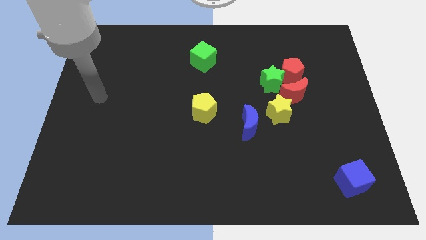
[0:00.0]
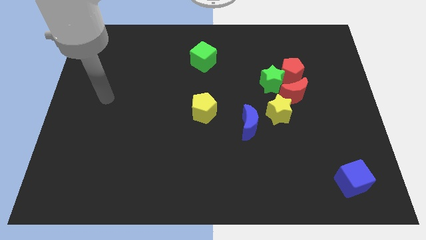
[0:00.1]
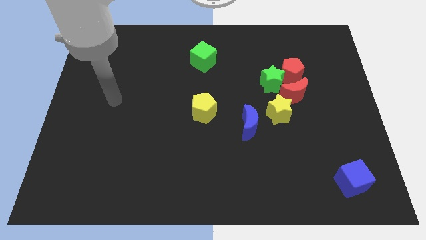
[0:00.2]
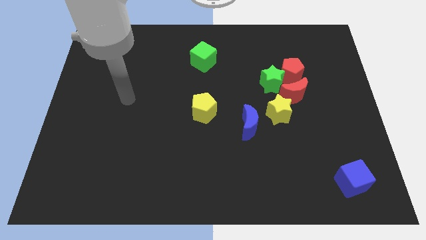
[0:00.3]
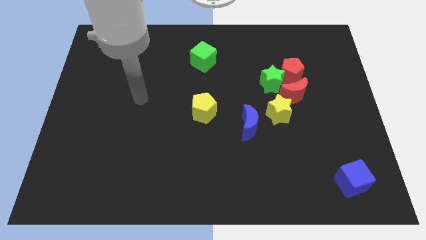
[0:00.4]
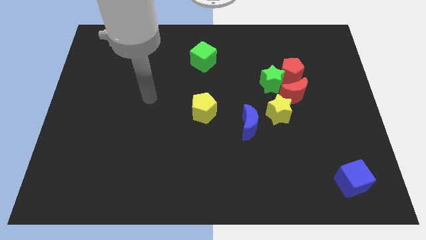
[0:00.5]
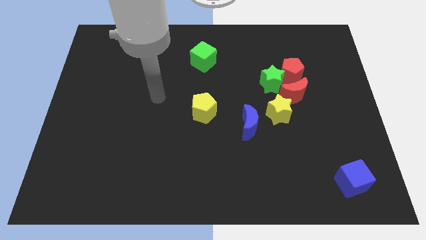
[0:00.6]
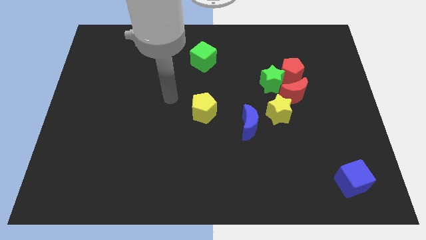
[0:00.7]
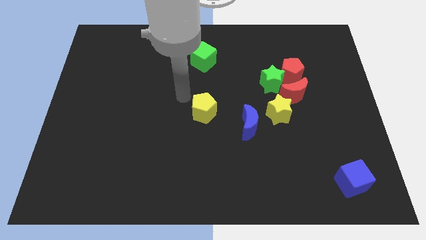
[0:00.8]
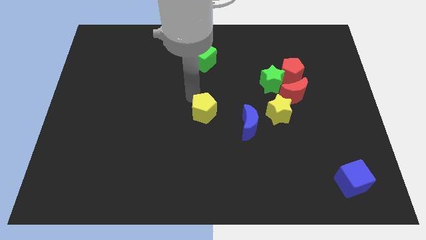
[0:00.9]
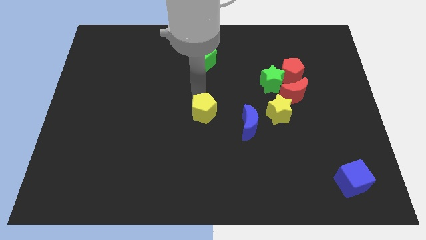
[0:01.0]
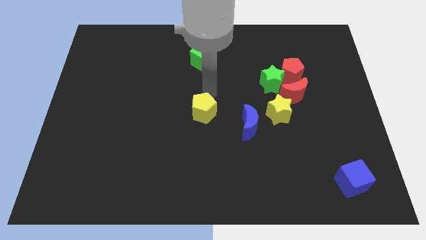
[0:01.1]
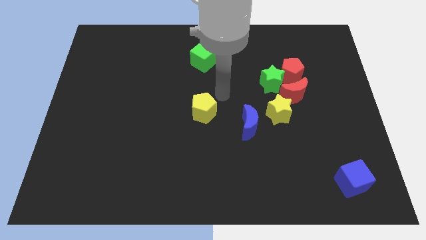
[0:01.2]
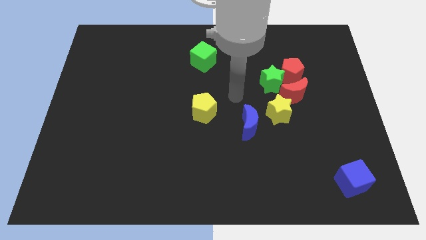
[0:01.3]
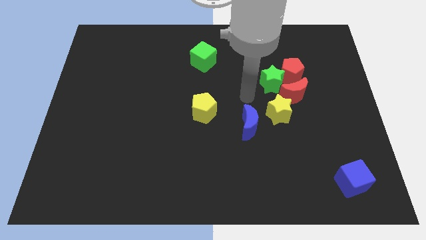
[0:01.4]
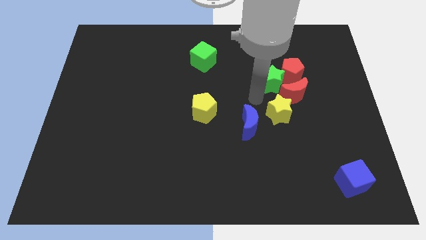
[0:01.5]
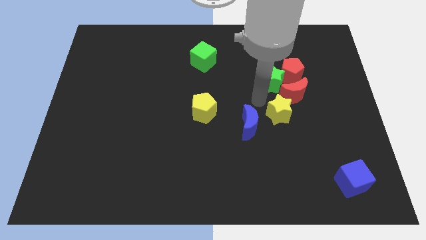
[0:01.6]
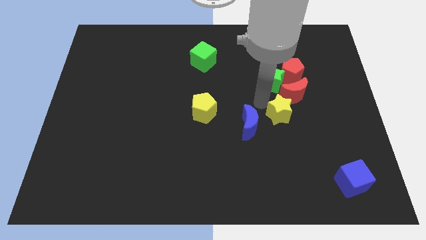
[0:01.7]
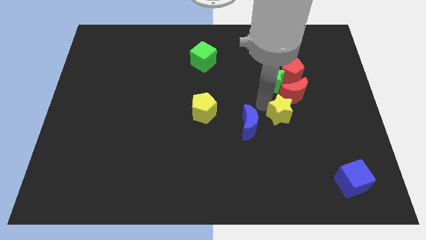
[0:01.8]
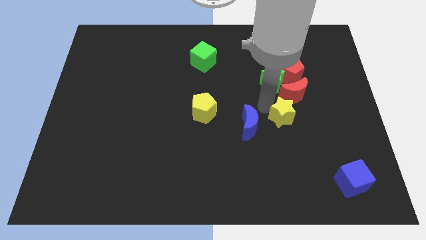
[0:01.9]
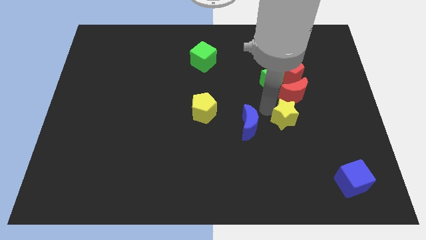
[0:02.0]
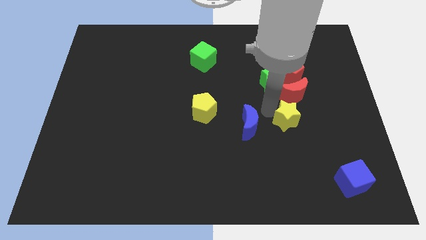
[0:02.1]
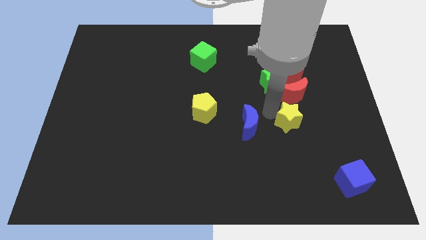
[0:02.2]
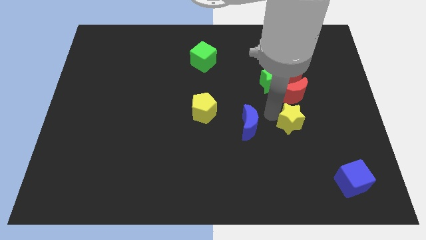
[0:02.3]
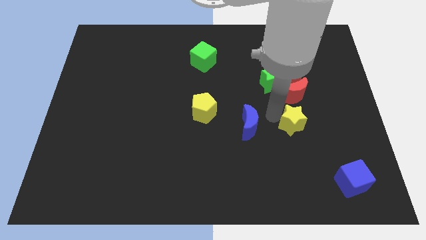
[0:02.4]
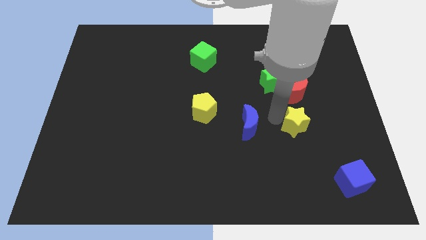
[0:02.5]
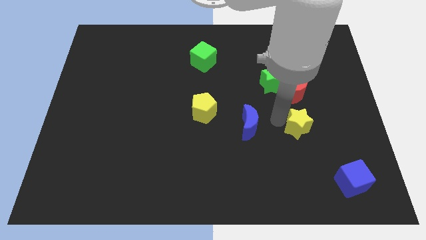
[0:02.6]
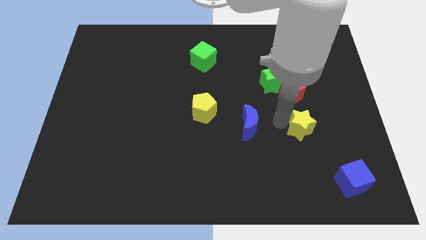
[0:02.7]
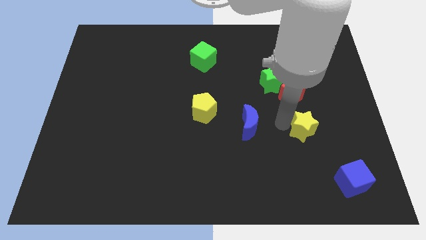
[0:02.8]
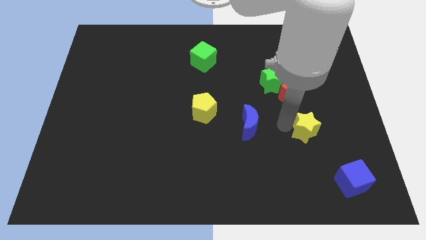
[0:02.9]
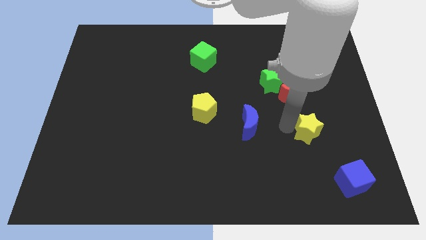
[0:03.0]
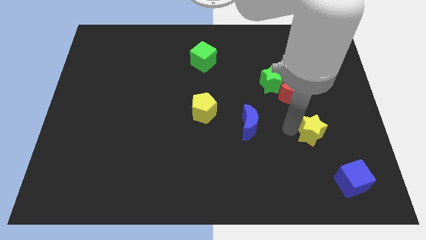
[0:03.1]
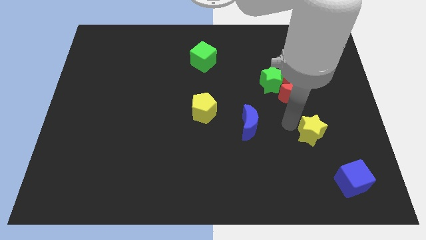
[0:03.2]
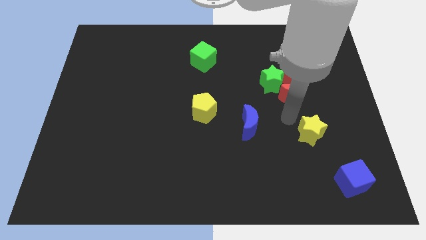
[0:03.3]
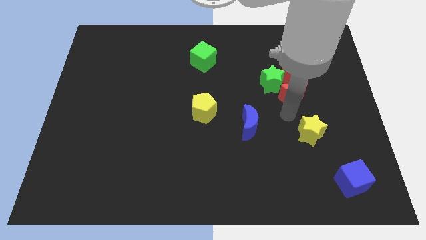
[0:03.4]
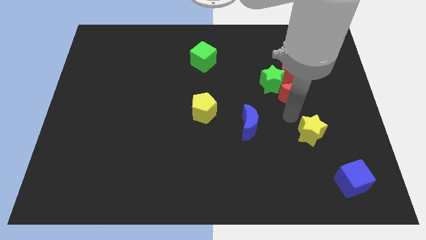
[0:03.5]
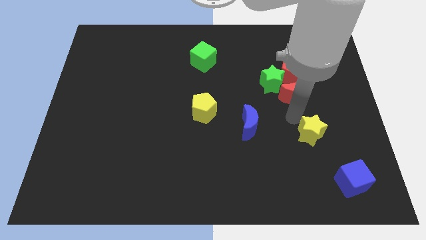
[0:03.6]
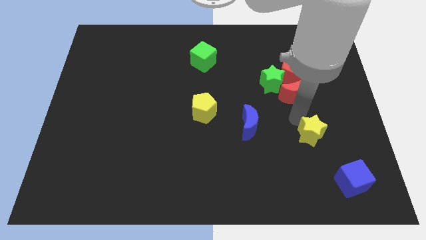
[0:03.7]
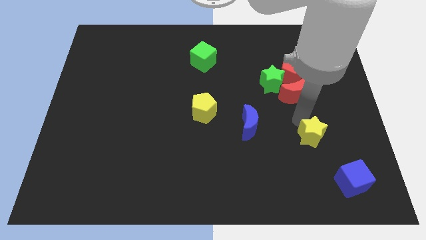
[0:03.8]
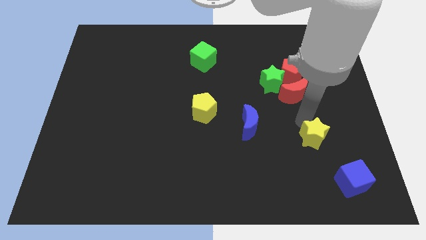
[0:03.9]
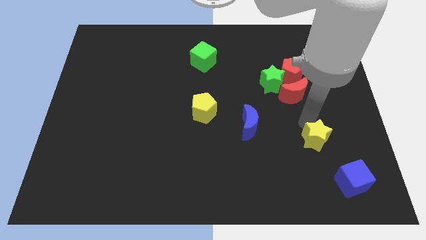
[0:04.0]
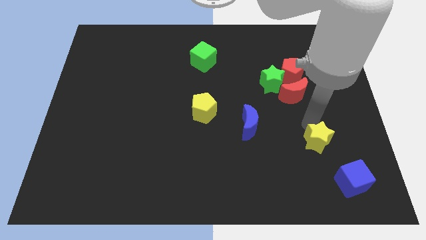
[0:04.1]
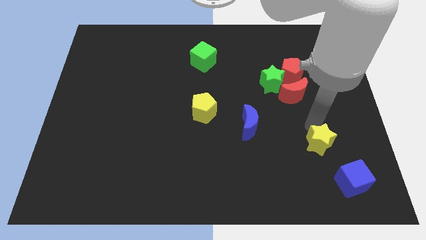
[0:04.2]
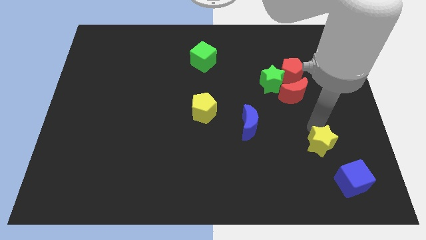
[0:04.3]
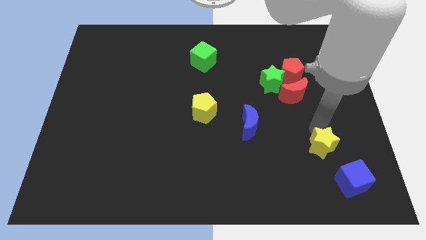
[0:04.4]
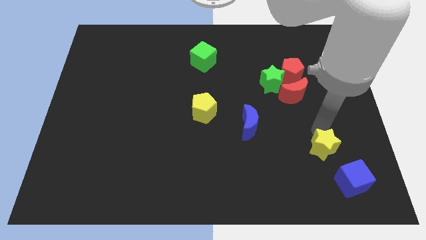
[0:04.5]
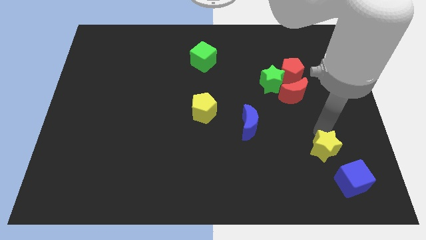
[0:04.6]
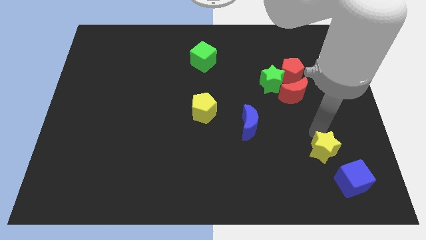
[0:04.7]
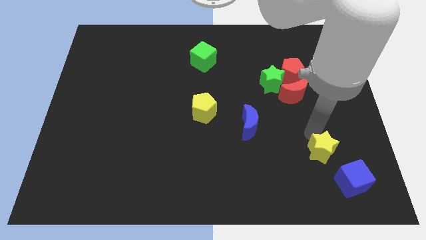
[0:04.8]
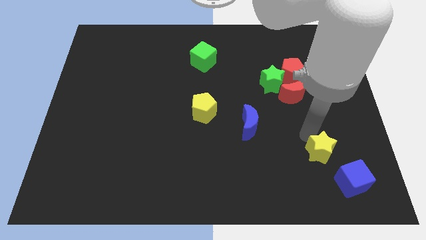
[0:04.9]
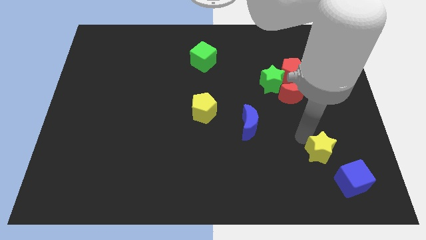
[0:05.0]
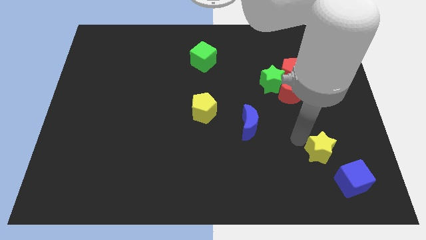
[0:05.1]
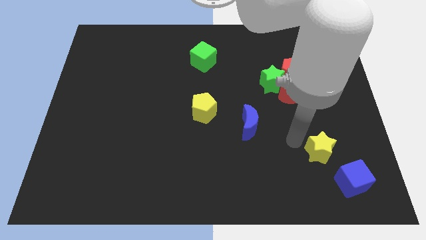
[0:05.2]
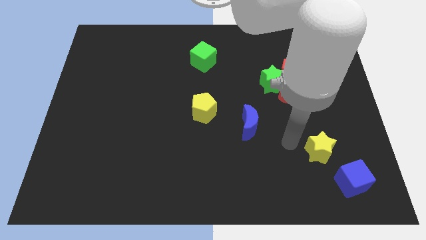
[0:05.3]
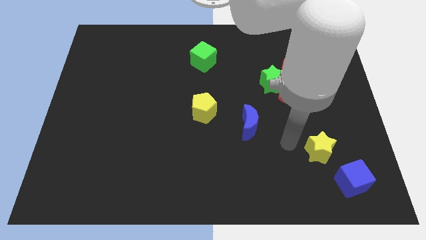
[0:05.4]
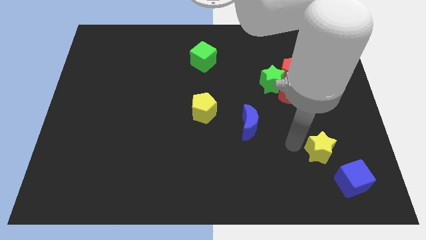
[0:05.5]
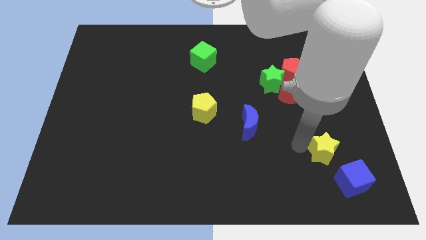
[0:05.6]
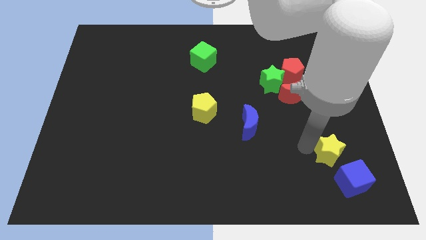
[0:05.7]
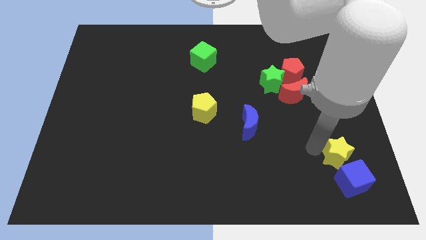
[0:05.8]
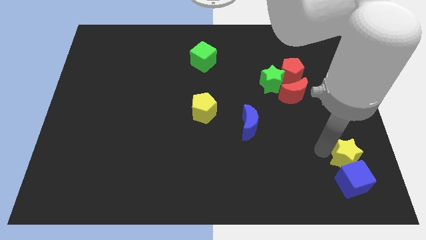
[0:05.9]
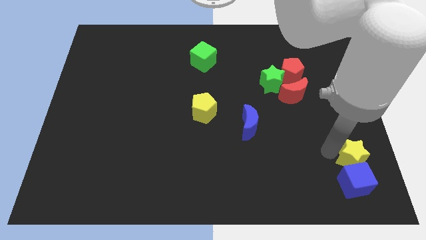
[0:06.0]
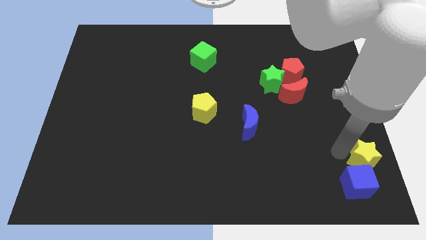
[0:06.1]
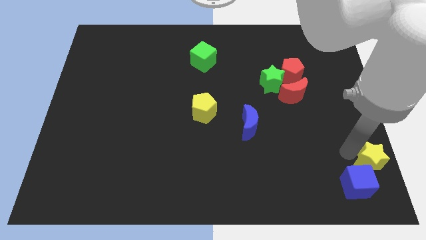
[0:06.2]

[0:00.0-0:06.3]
slide the yellow star to the bottom right of the board

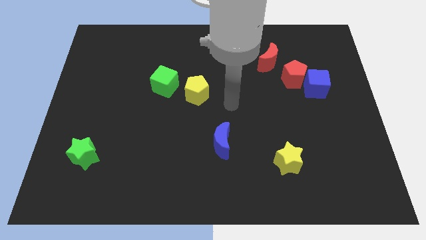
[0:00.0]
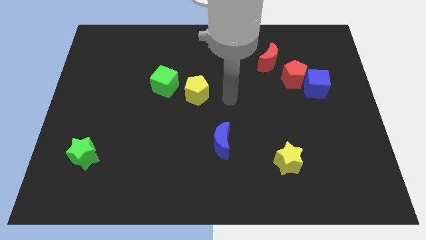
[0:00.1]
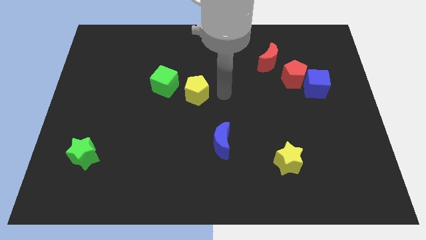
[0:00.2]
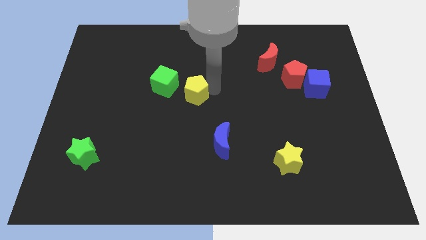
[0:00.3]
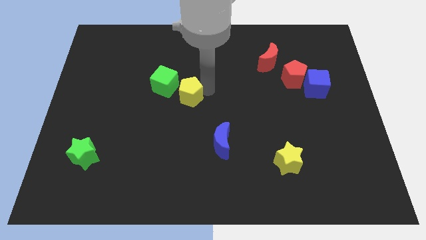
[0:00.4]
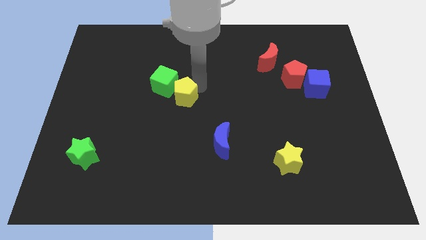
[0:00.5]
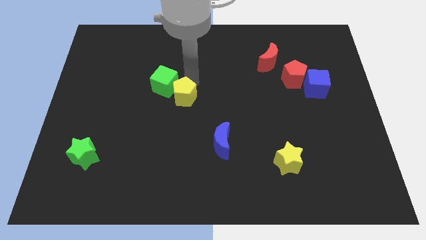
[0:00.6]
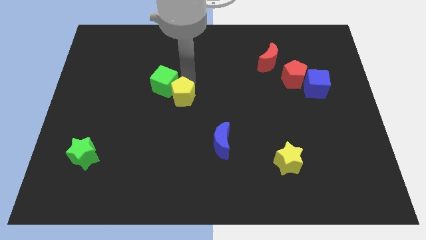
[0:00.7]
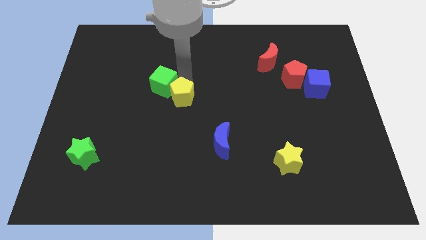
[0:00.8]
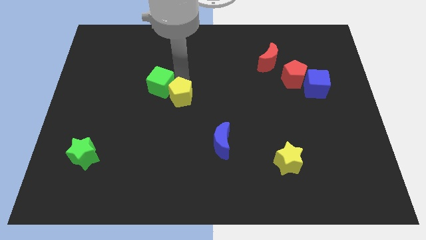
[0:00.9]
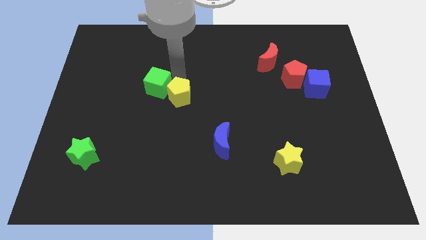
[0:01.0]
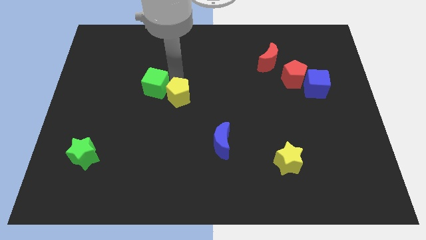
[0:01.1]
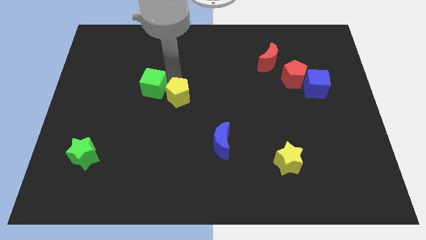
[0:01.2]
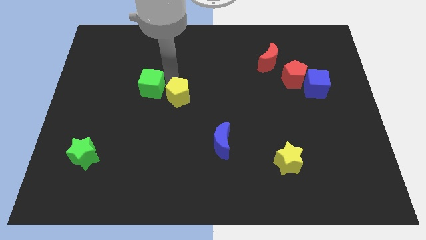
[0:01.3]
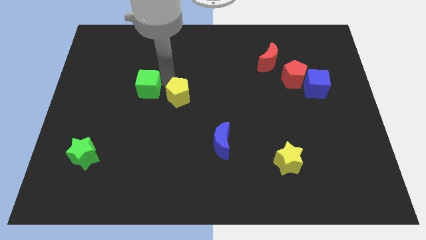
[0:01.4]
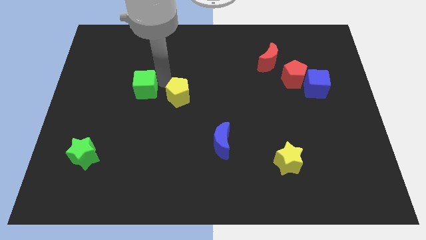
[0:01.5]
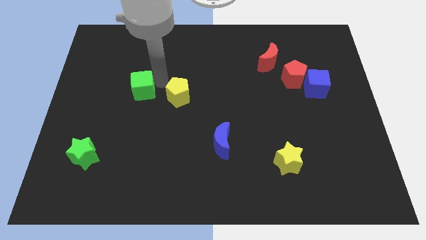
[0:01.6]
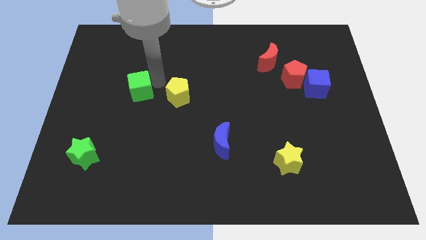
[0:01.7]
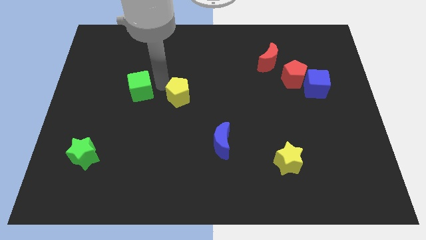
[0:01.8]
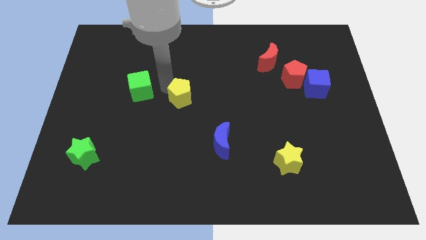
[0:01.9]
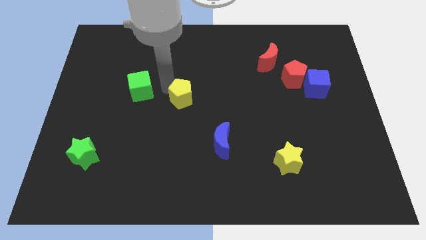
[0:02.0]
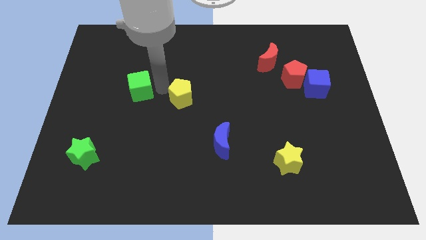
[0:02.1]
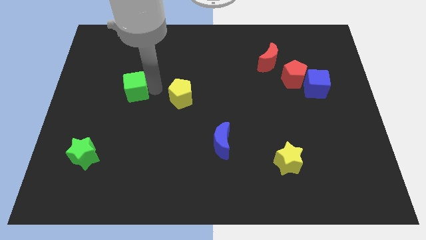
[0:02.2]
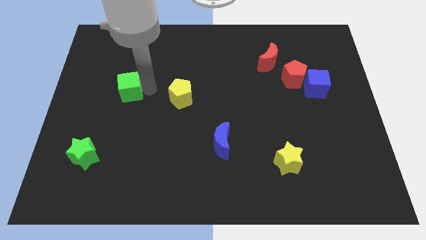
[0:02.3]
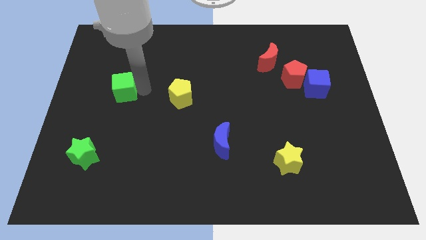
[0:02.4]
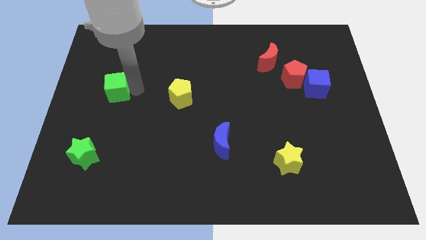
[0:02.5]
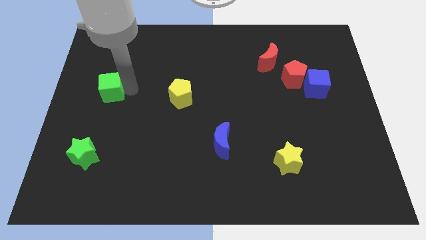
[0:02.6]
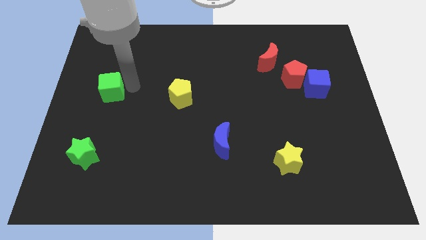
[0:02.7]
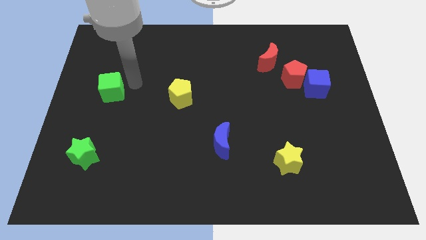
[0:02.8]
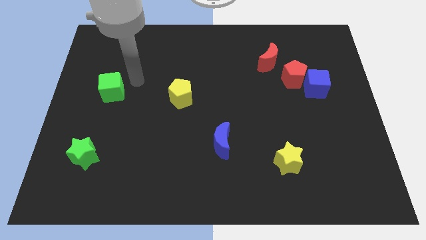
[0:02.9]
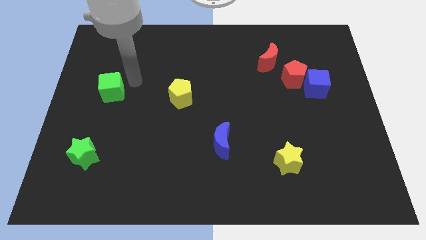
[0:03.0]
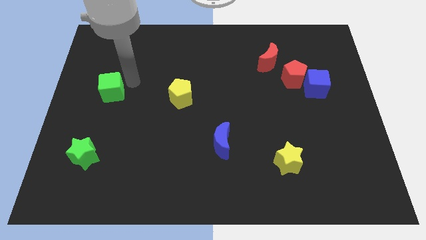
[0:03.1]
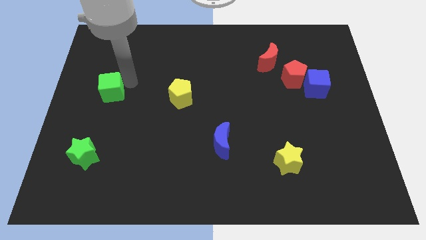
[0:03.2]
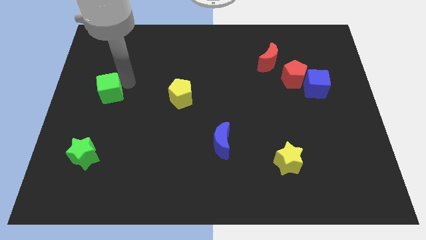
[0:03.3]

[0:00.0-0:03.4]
slide the green cube to the left side
